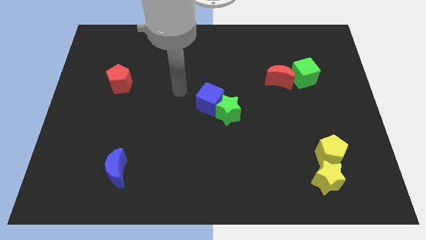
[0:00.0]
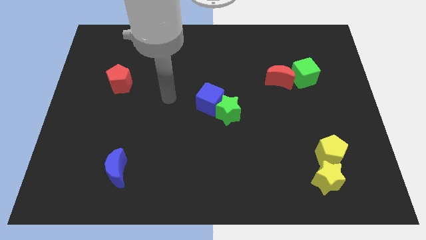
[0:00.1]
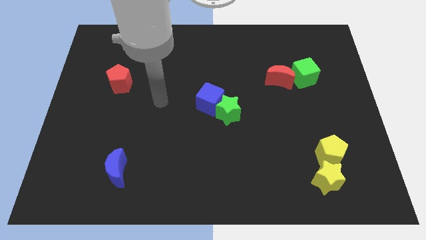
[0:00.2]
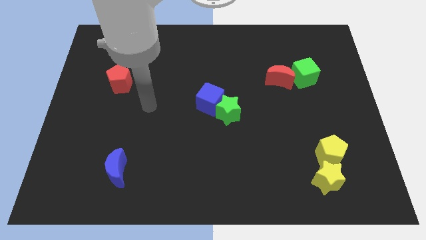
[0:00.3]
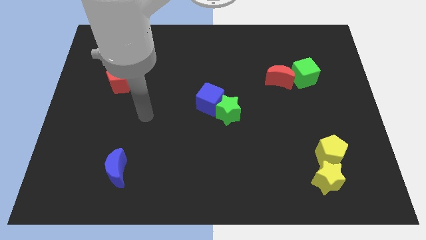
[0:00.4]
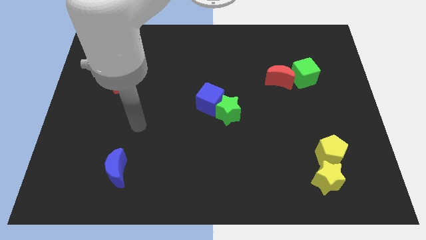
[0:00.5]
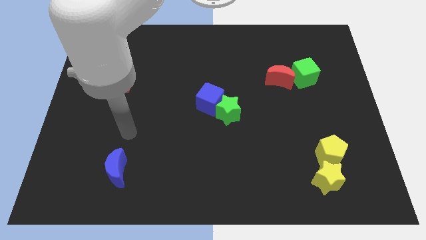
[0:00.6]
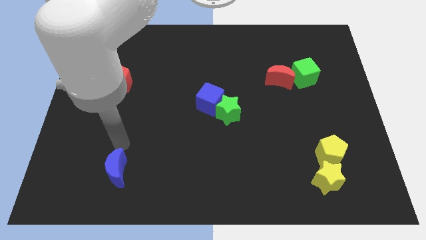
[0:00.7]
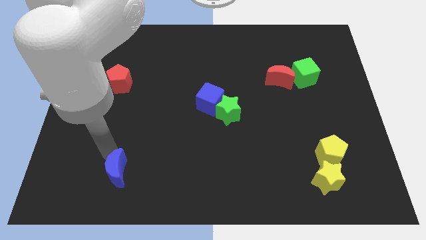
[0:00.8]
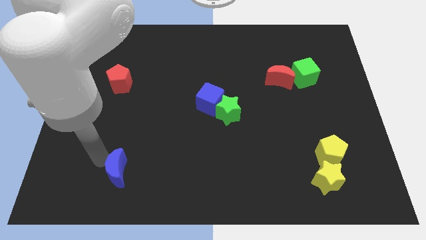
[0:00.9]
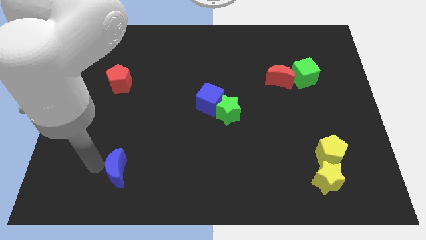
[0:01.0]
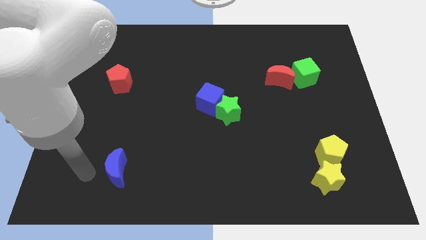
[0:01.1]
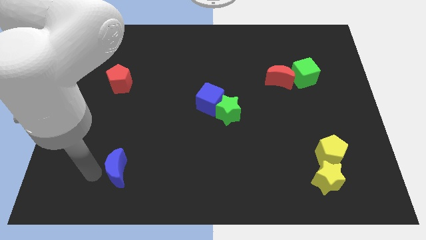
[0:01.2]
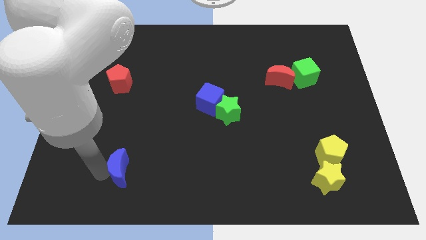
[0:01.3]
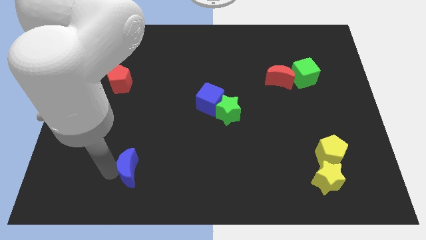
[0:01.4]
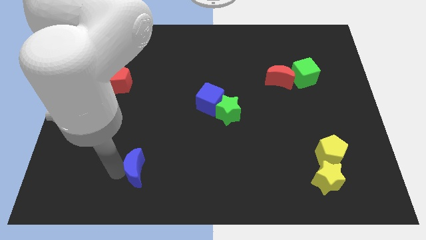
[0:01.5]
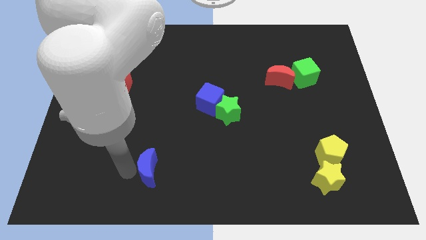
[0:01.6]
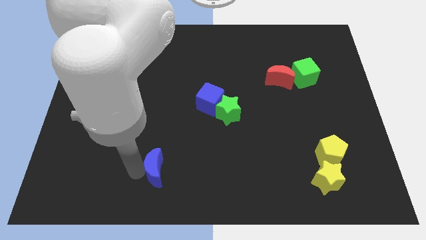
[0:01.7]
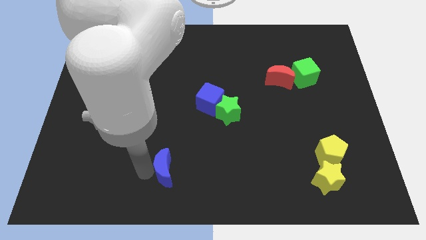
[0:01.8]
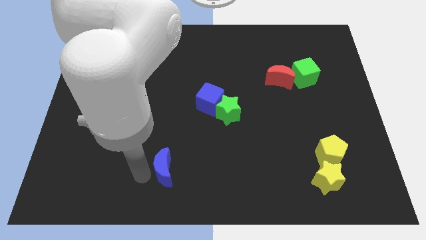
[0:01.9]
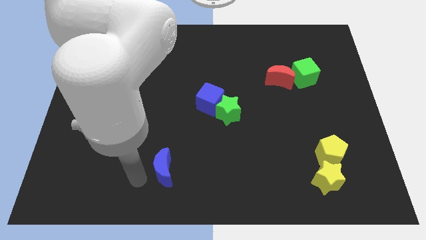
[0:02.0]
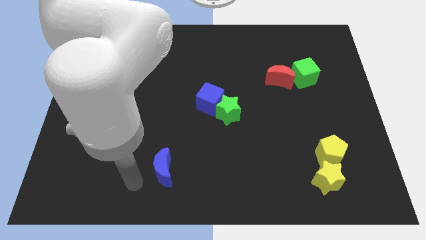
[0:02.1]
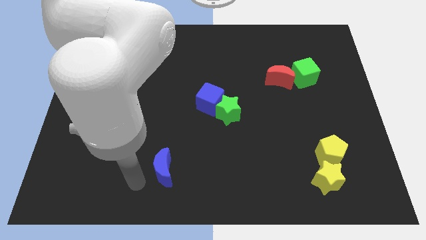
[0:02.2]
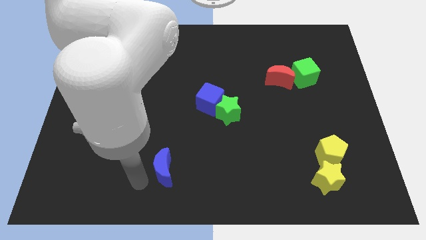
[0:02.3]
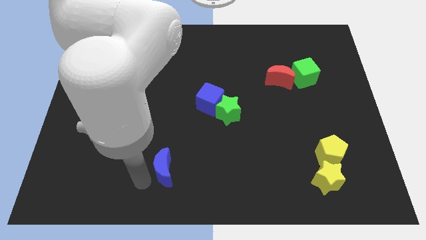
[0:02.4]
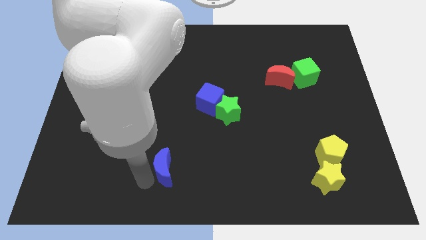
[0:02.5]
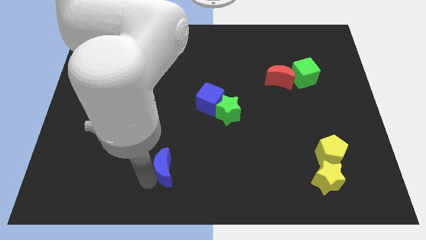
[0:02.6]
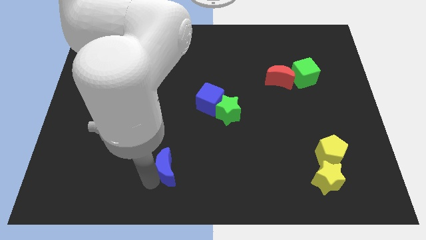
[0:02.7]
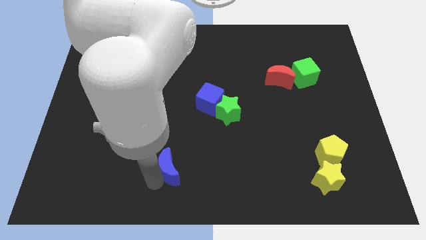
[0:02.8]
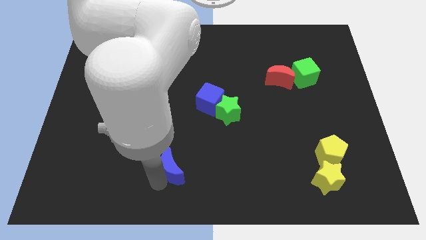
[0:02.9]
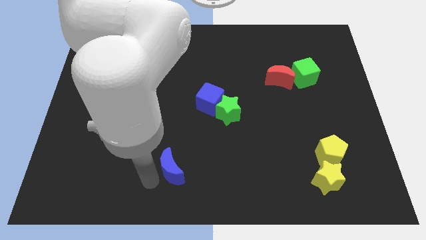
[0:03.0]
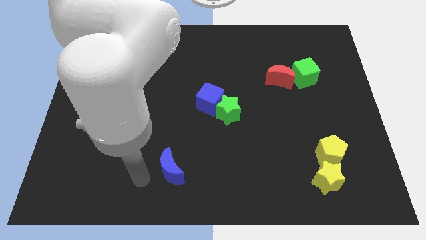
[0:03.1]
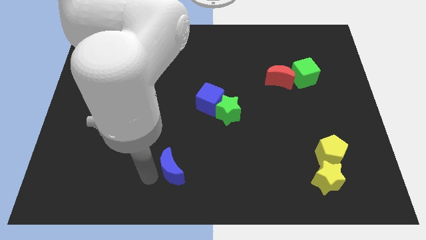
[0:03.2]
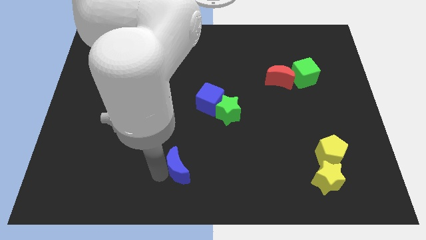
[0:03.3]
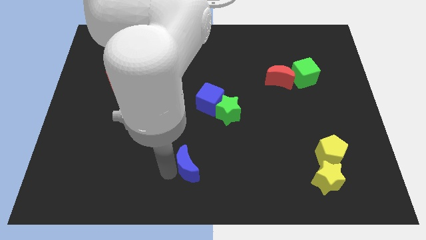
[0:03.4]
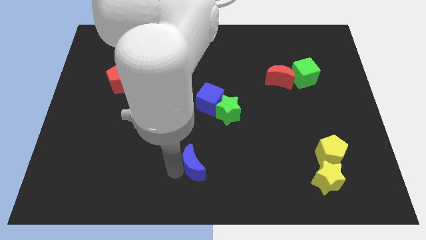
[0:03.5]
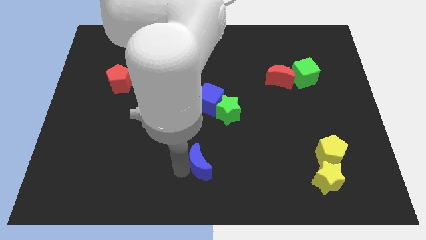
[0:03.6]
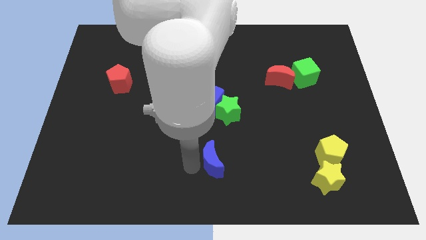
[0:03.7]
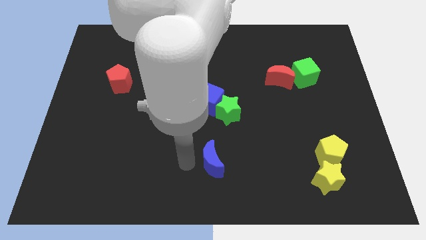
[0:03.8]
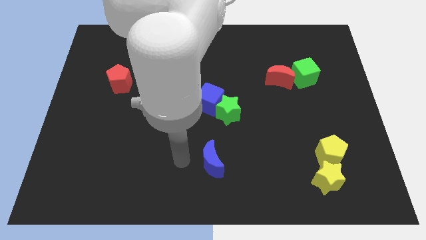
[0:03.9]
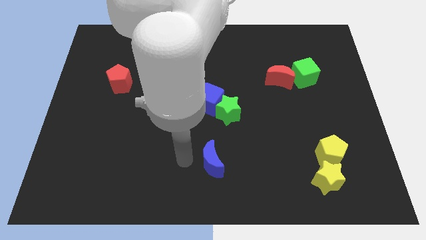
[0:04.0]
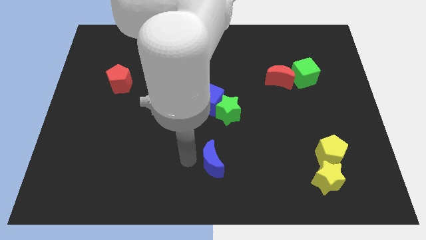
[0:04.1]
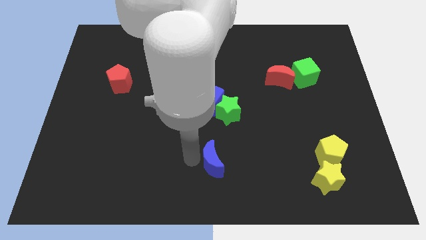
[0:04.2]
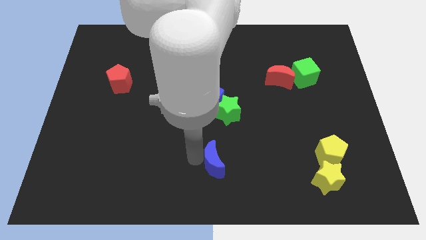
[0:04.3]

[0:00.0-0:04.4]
push the blue moon right

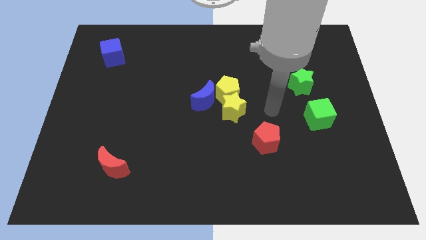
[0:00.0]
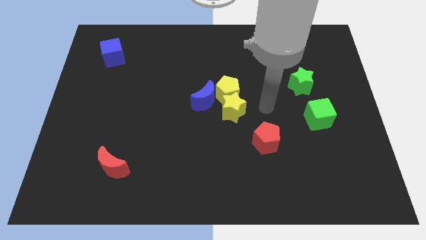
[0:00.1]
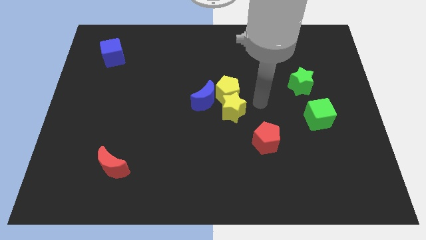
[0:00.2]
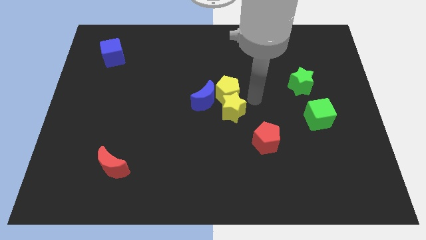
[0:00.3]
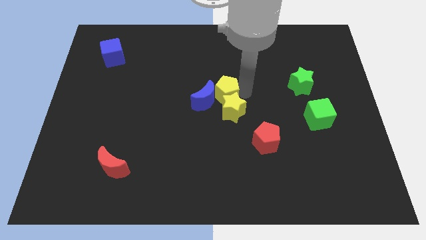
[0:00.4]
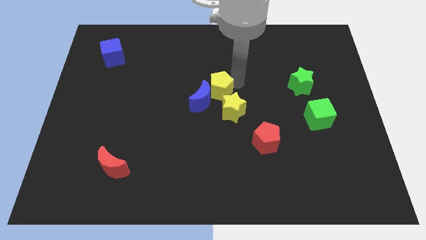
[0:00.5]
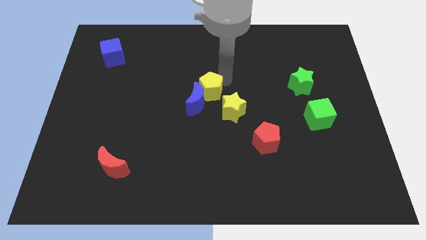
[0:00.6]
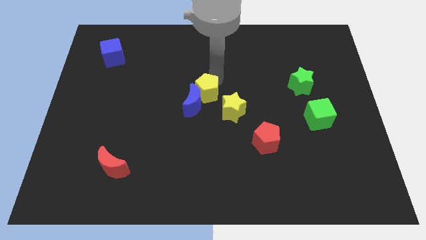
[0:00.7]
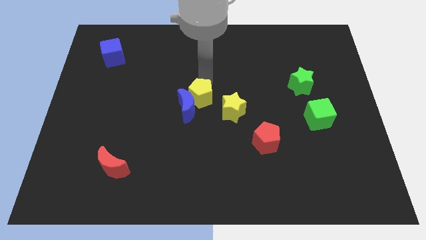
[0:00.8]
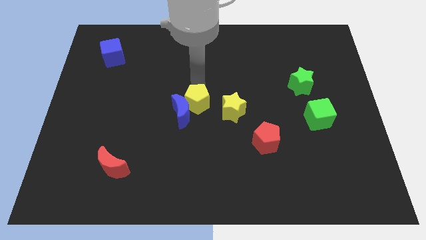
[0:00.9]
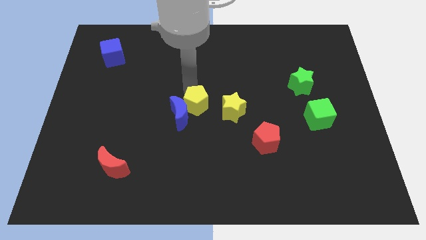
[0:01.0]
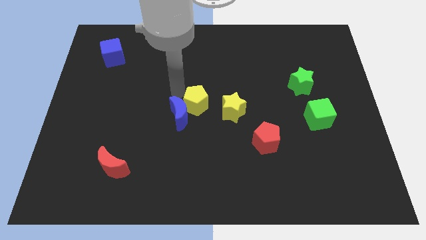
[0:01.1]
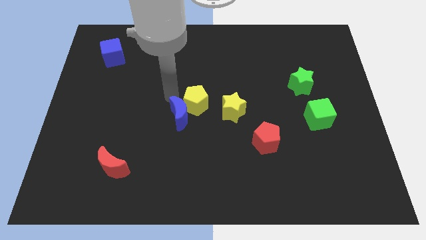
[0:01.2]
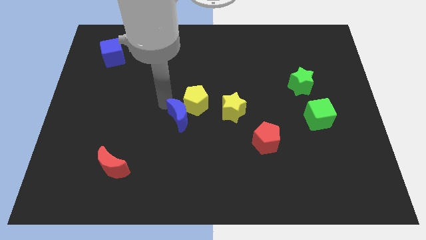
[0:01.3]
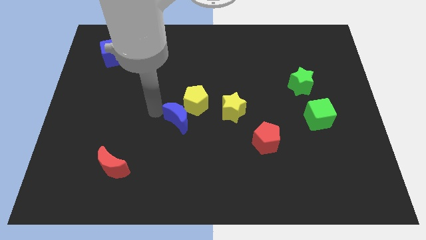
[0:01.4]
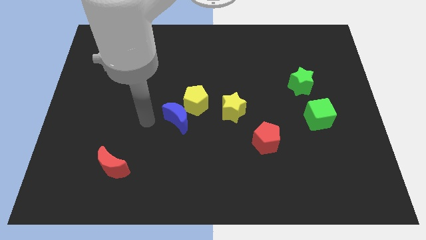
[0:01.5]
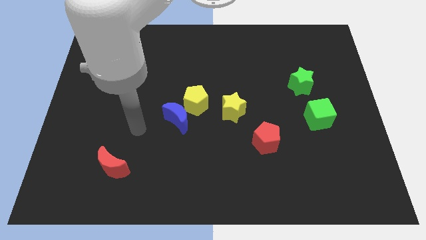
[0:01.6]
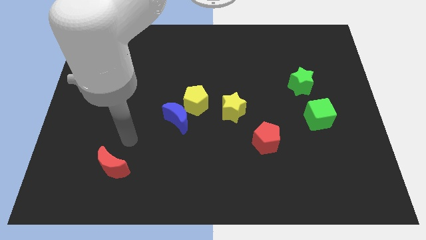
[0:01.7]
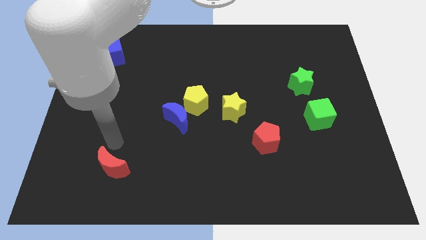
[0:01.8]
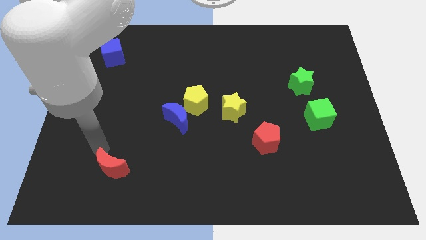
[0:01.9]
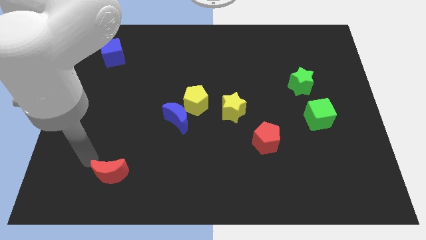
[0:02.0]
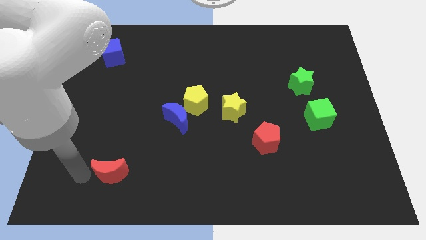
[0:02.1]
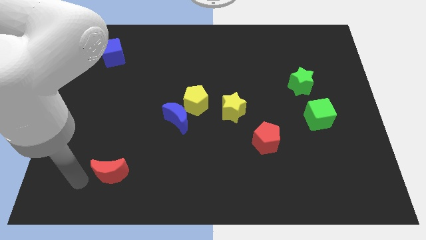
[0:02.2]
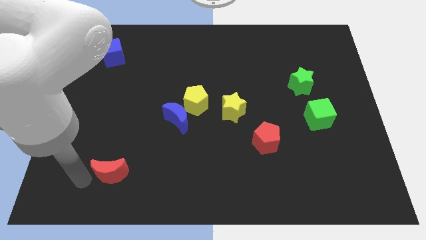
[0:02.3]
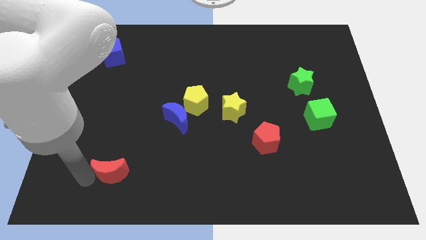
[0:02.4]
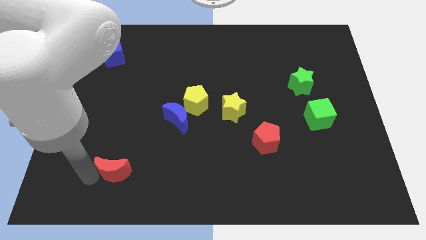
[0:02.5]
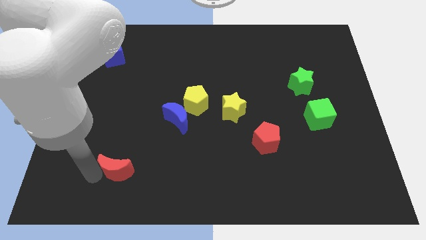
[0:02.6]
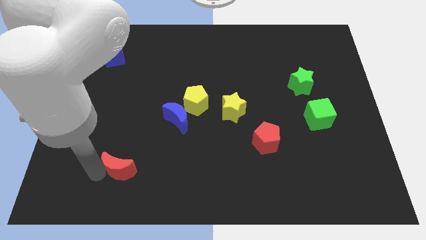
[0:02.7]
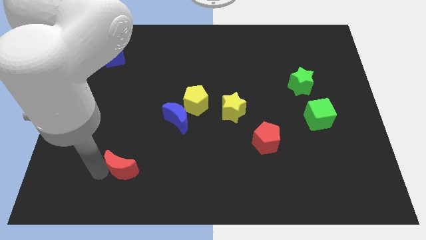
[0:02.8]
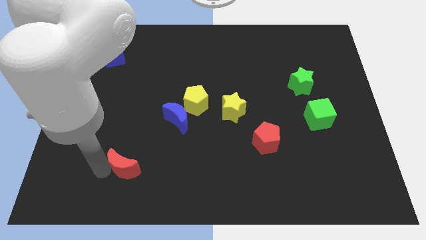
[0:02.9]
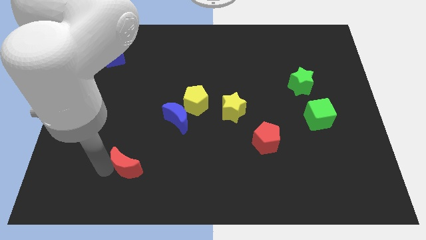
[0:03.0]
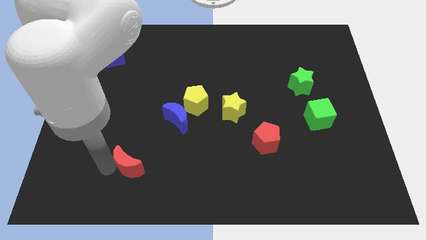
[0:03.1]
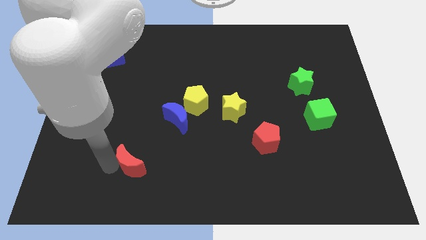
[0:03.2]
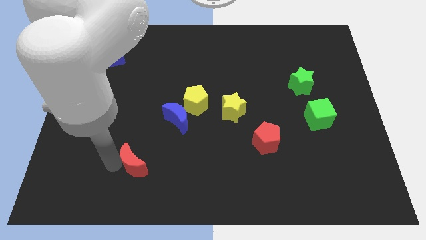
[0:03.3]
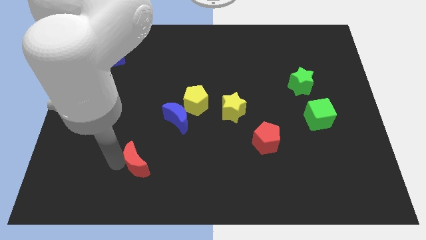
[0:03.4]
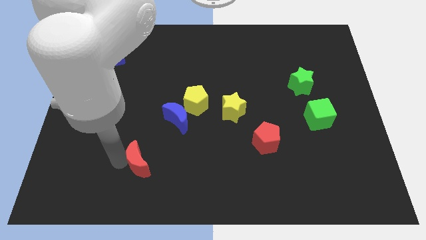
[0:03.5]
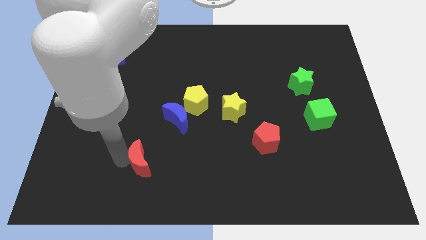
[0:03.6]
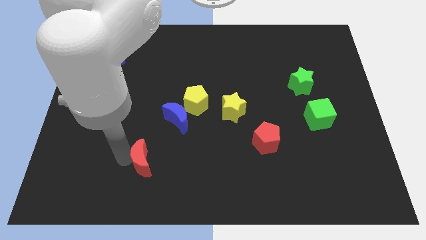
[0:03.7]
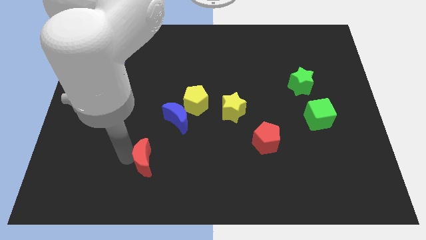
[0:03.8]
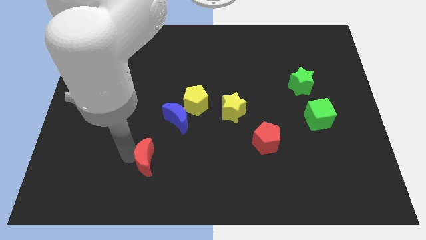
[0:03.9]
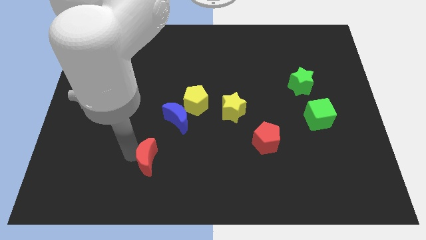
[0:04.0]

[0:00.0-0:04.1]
move the red moon right slightly
